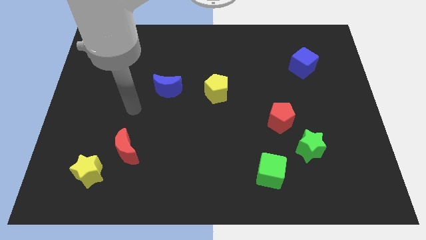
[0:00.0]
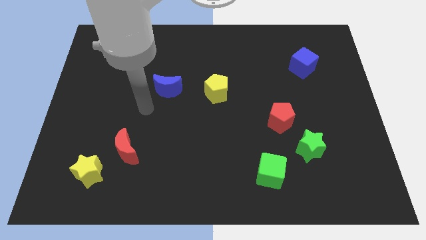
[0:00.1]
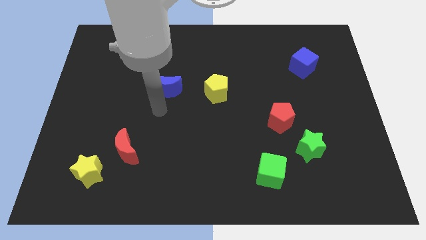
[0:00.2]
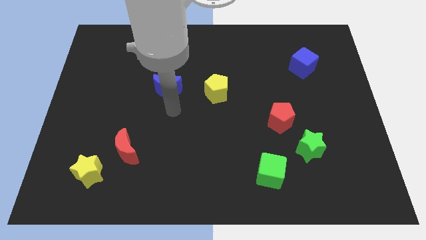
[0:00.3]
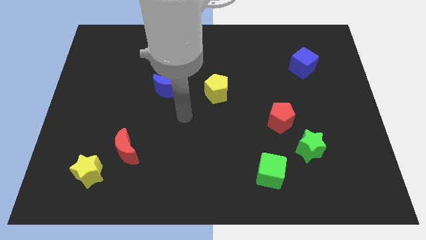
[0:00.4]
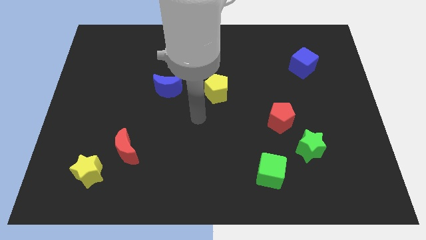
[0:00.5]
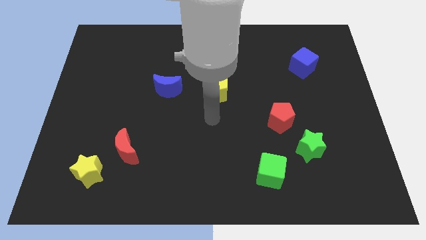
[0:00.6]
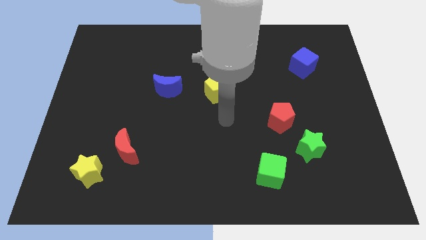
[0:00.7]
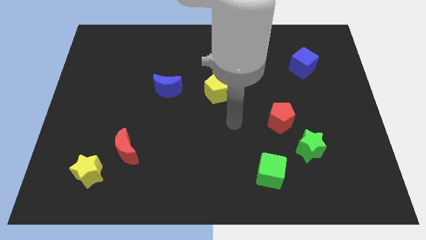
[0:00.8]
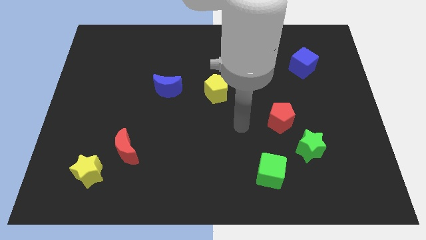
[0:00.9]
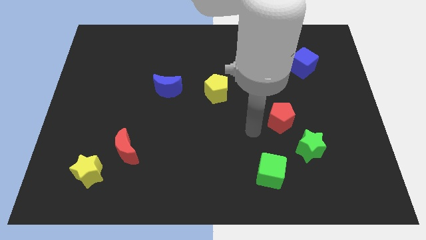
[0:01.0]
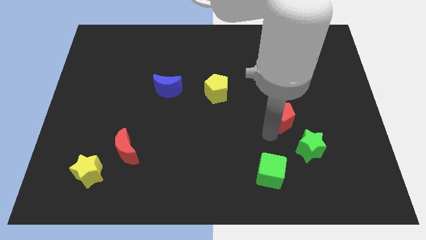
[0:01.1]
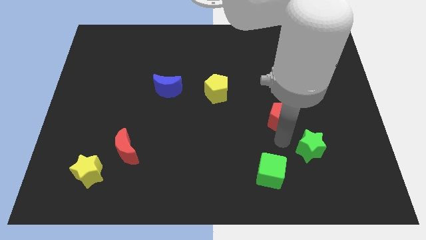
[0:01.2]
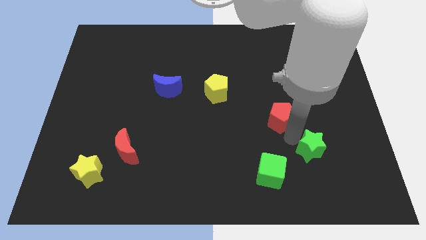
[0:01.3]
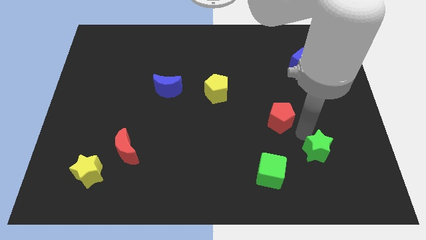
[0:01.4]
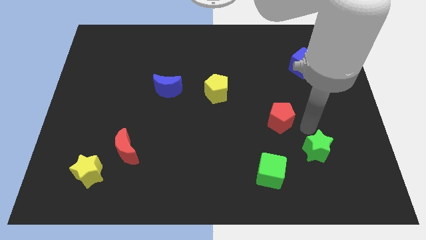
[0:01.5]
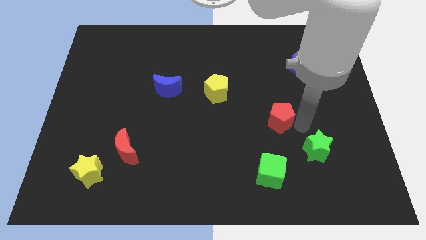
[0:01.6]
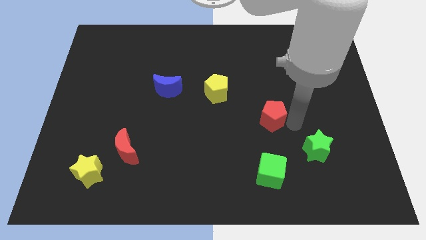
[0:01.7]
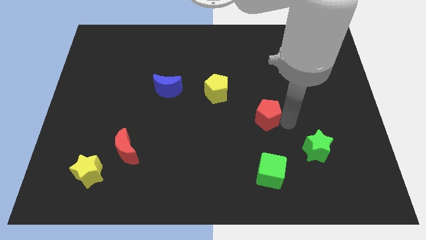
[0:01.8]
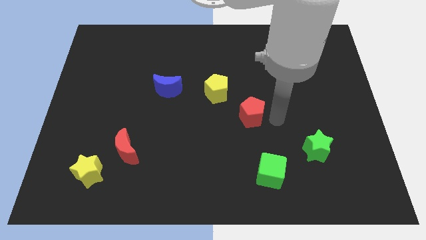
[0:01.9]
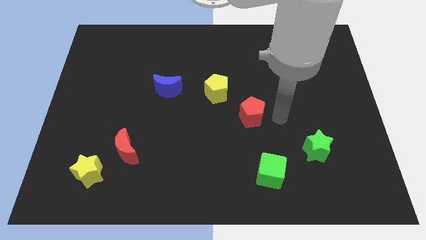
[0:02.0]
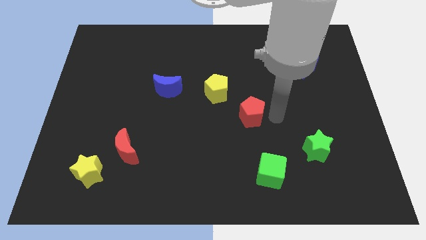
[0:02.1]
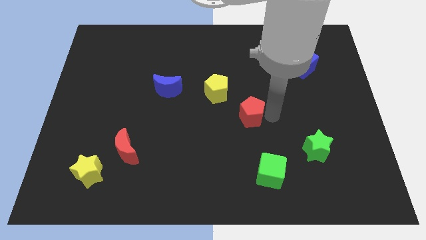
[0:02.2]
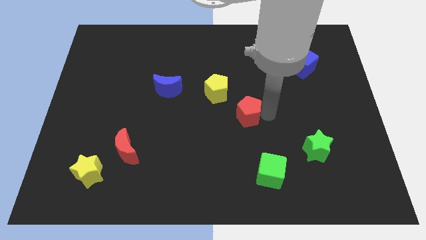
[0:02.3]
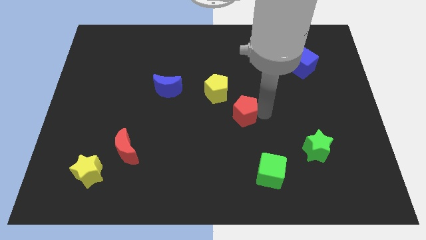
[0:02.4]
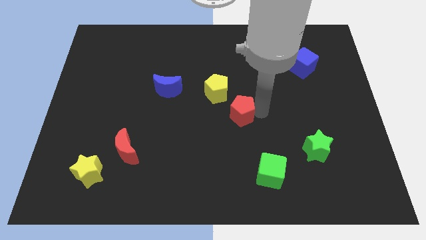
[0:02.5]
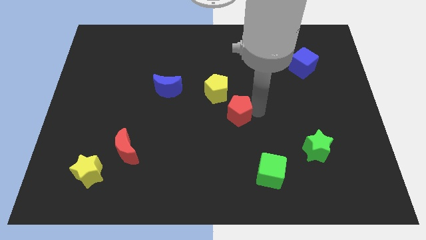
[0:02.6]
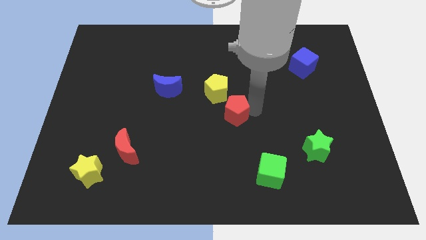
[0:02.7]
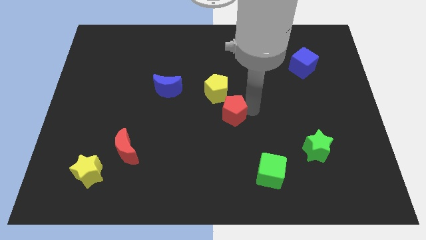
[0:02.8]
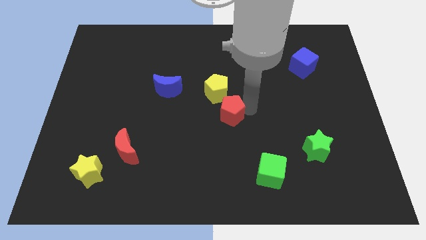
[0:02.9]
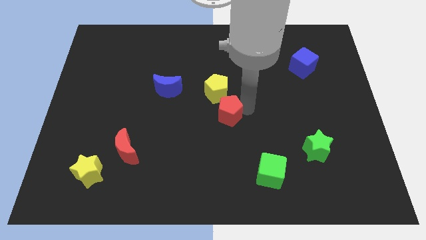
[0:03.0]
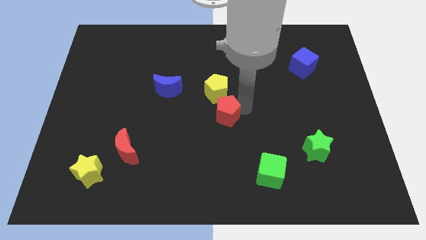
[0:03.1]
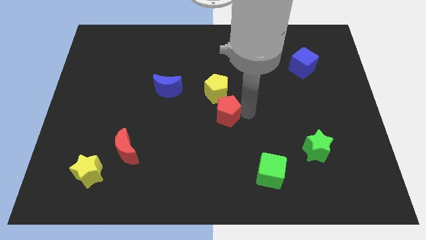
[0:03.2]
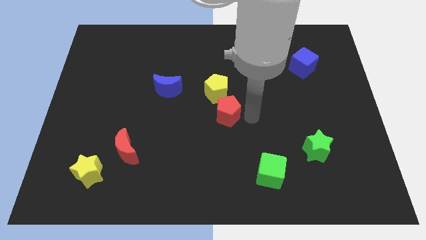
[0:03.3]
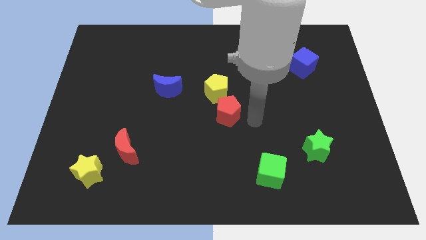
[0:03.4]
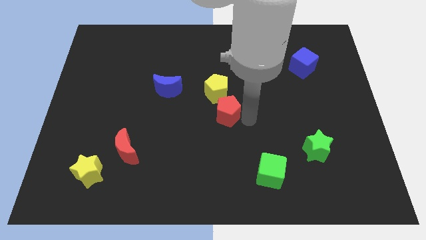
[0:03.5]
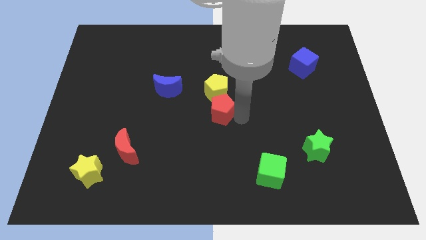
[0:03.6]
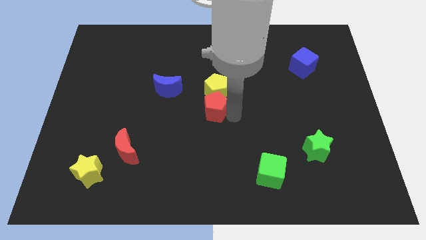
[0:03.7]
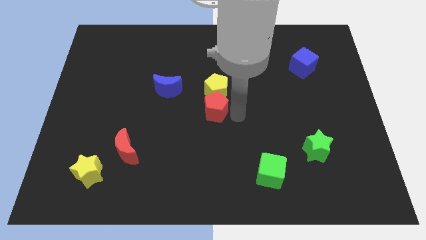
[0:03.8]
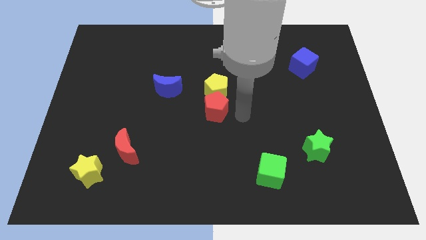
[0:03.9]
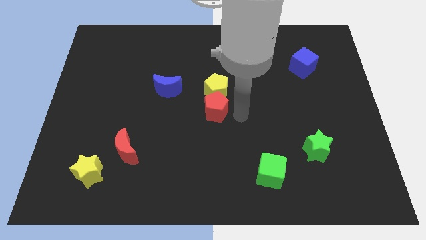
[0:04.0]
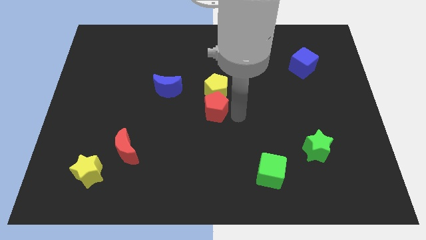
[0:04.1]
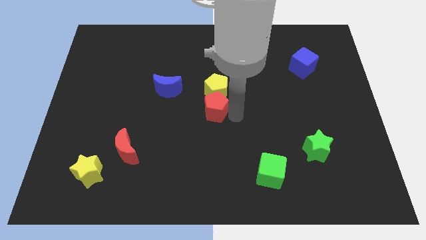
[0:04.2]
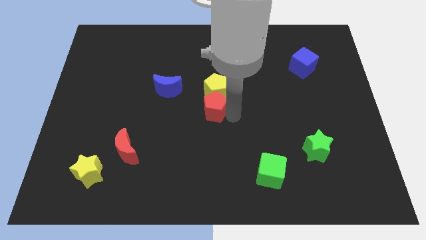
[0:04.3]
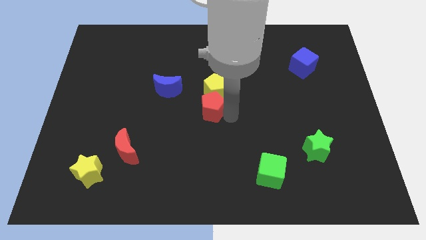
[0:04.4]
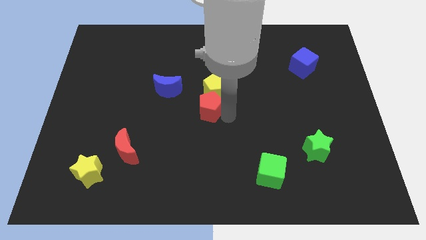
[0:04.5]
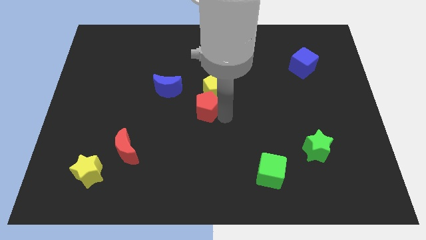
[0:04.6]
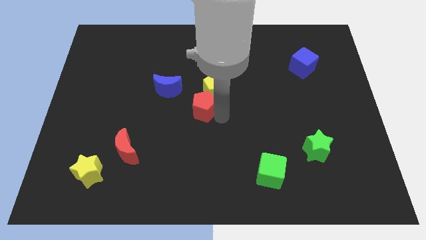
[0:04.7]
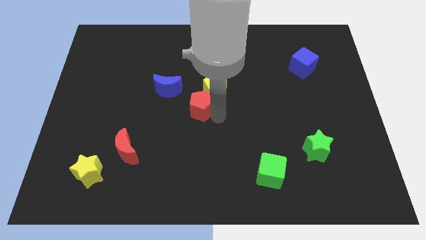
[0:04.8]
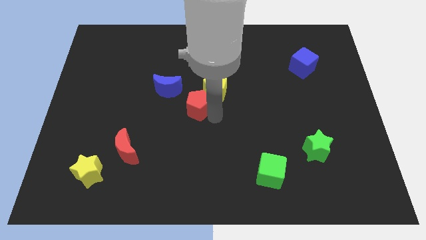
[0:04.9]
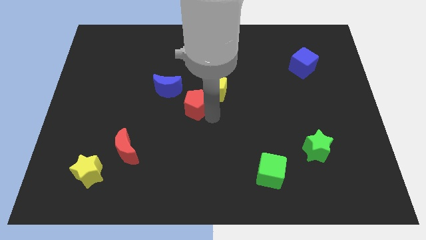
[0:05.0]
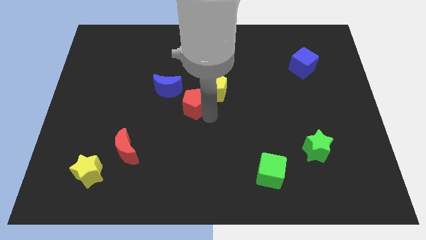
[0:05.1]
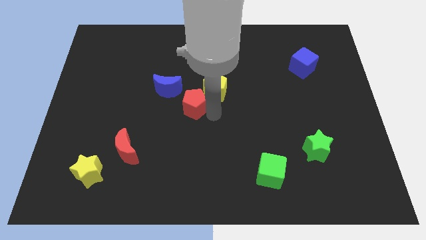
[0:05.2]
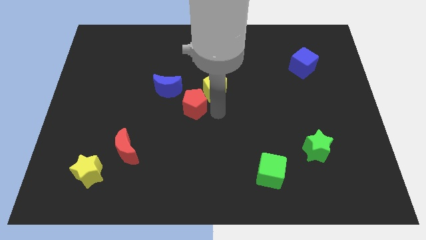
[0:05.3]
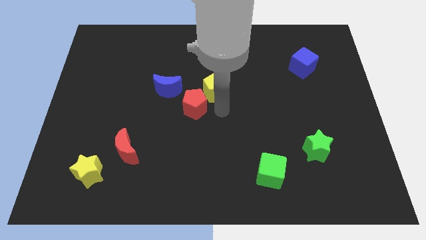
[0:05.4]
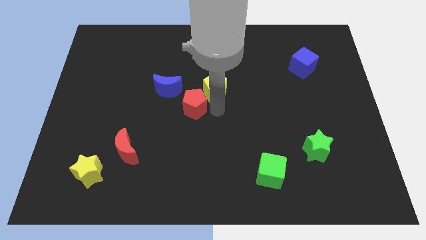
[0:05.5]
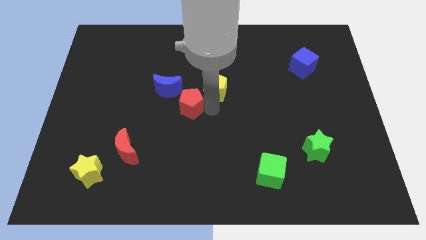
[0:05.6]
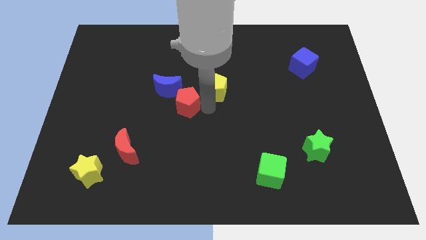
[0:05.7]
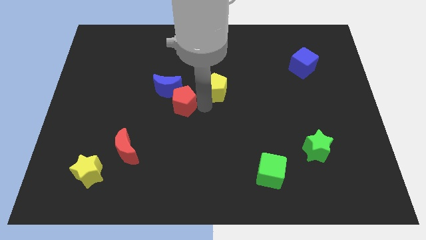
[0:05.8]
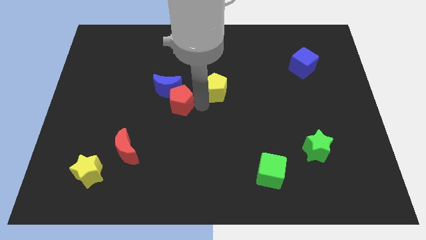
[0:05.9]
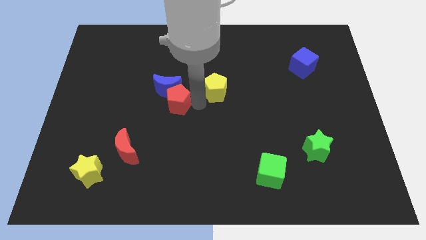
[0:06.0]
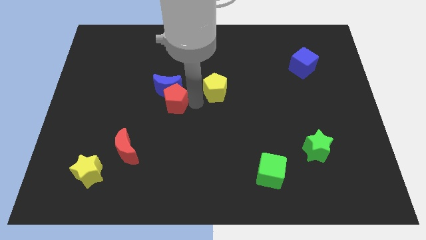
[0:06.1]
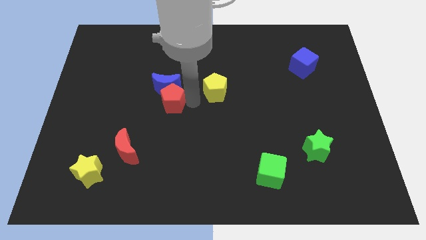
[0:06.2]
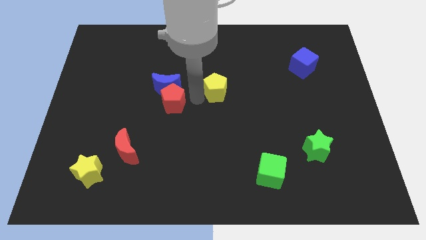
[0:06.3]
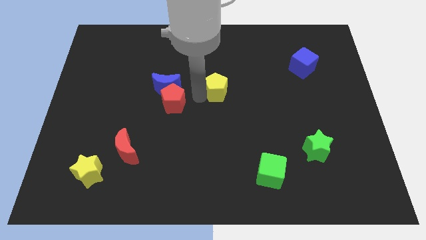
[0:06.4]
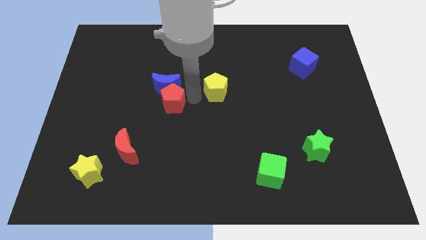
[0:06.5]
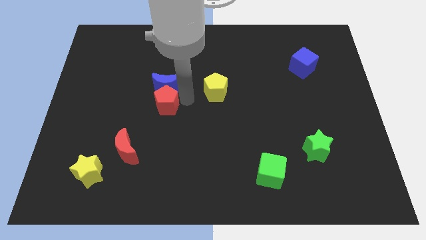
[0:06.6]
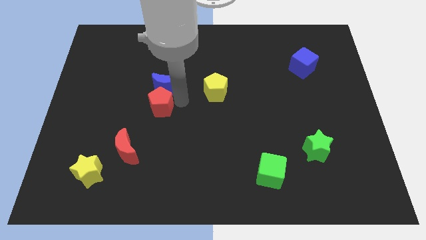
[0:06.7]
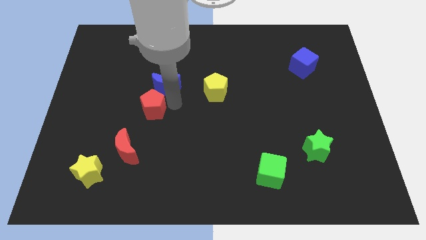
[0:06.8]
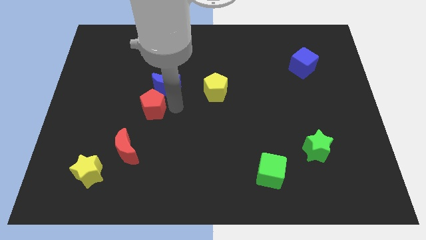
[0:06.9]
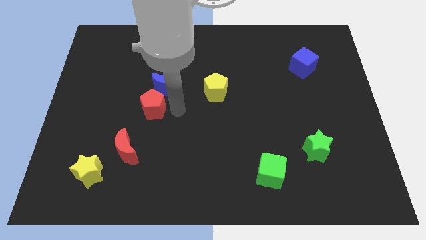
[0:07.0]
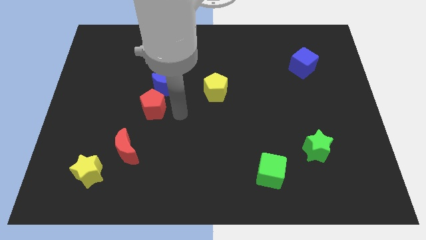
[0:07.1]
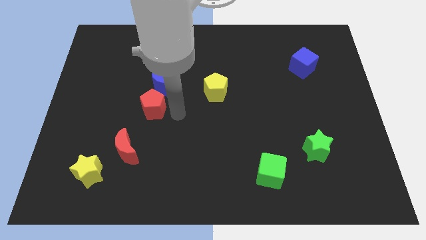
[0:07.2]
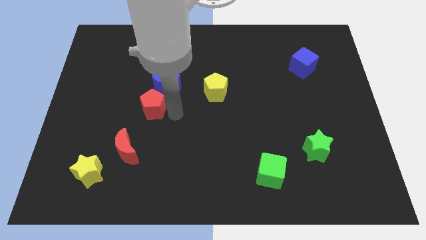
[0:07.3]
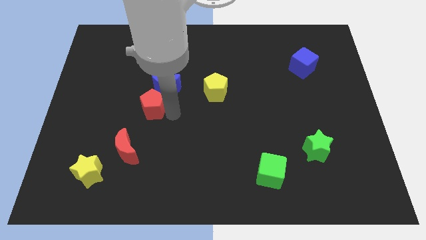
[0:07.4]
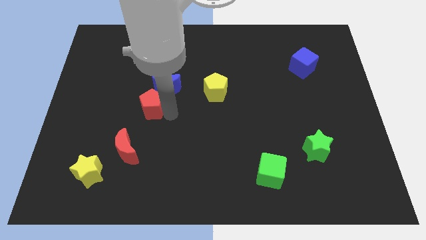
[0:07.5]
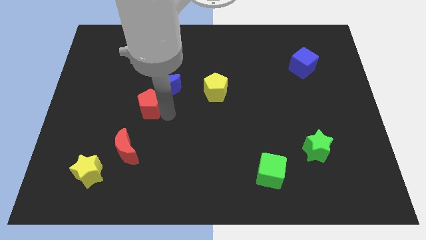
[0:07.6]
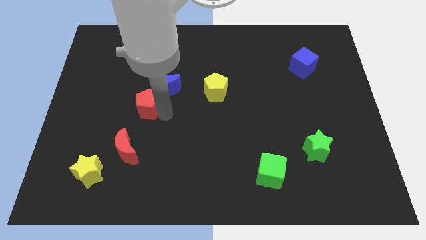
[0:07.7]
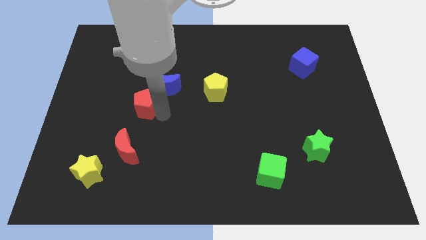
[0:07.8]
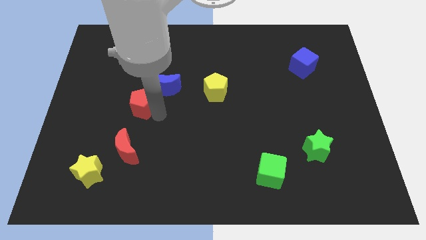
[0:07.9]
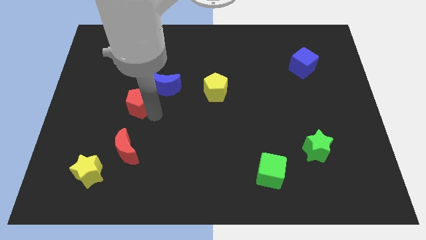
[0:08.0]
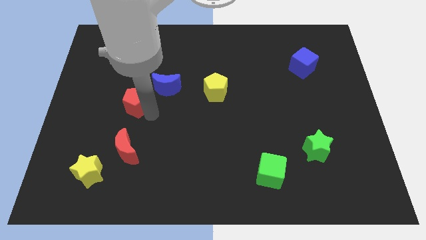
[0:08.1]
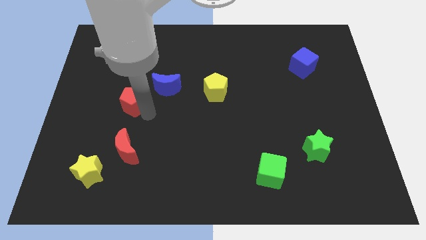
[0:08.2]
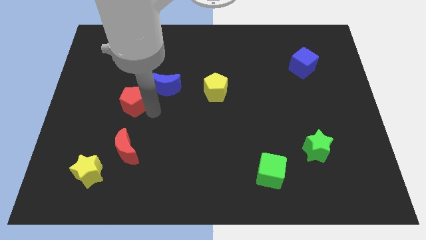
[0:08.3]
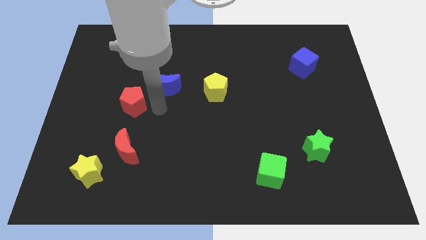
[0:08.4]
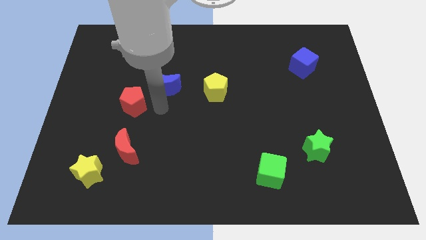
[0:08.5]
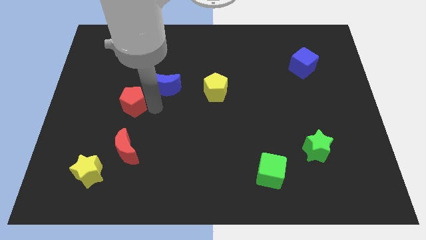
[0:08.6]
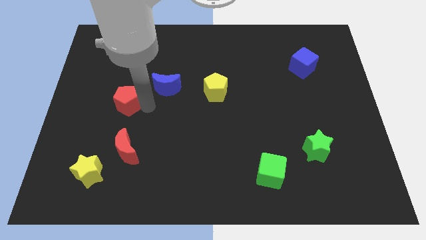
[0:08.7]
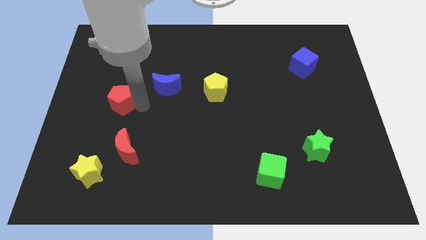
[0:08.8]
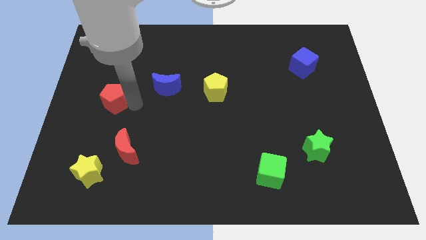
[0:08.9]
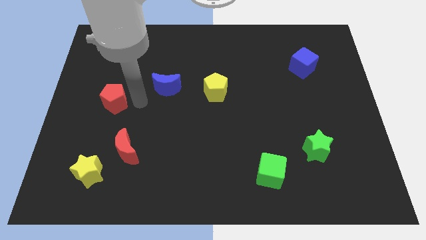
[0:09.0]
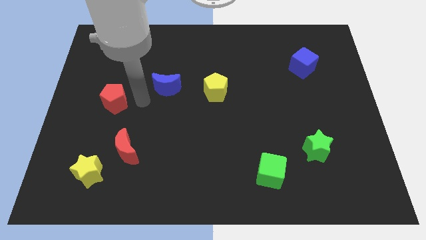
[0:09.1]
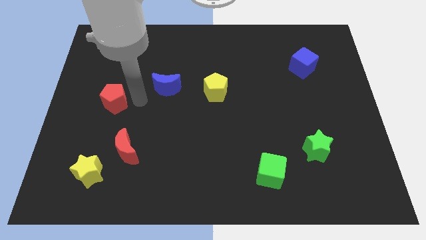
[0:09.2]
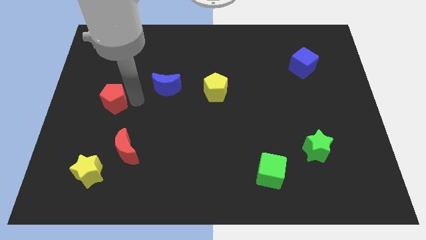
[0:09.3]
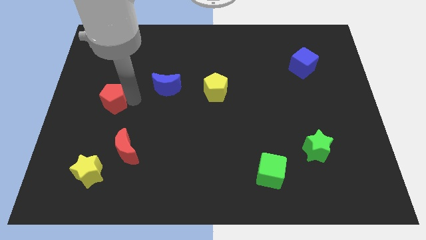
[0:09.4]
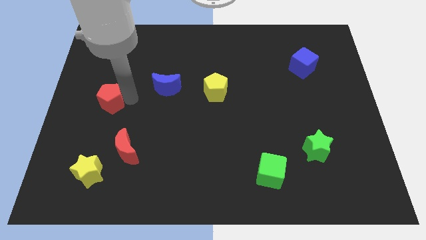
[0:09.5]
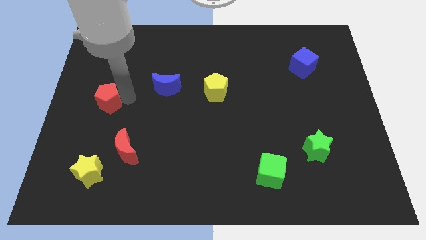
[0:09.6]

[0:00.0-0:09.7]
move the red pentagon to the left side of the board
